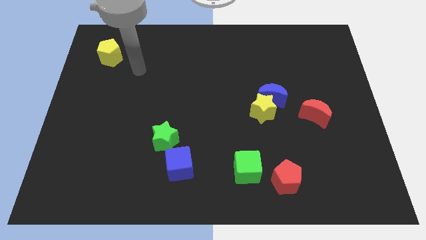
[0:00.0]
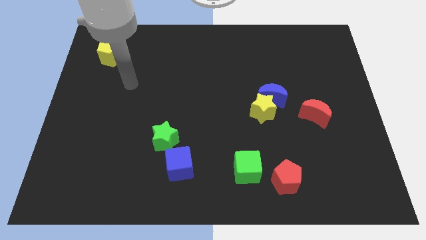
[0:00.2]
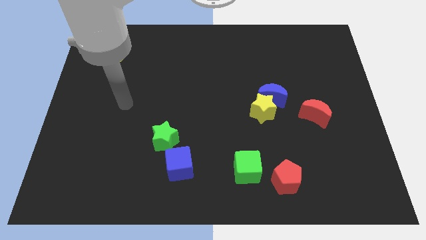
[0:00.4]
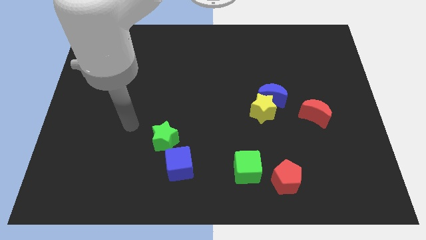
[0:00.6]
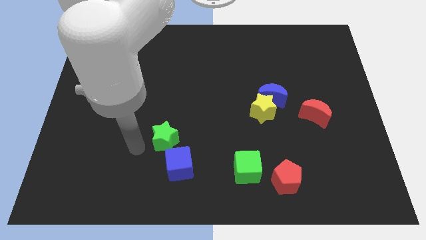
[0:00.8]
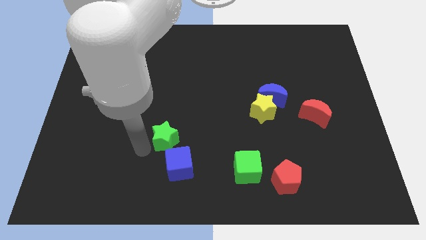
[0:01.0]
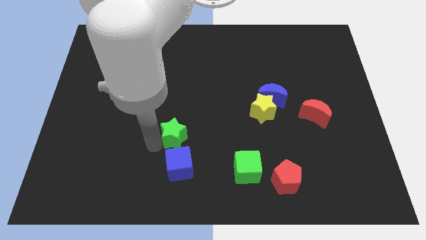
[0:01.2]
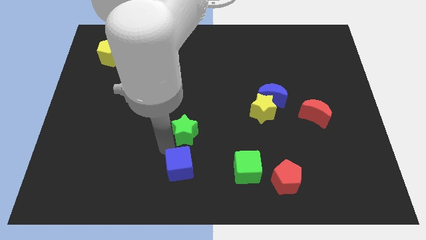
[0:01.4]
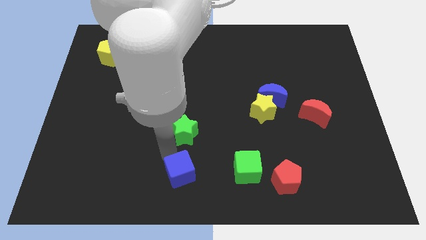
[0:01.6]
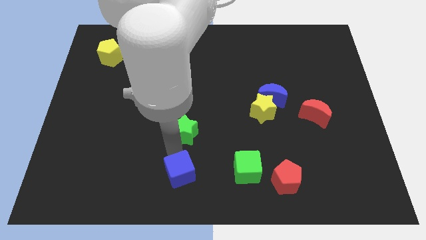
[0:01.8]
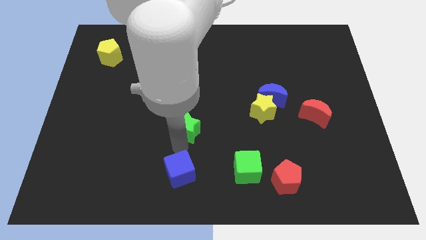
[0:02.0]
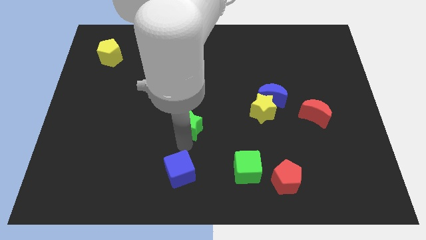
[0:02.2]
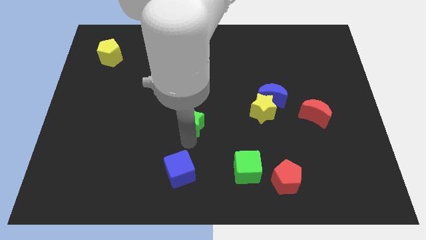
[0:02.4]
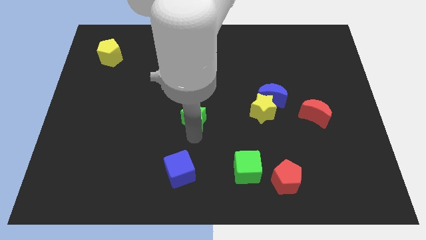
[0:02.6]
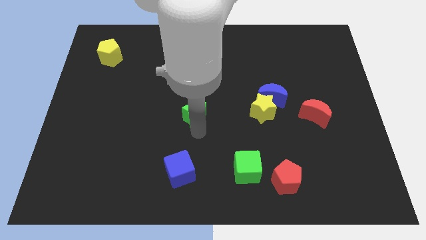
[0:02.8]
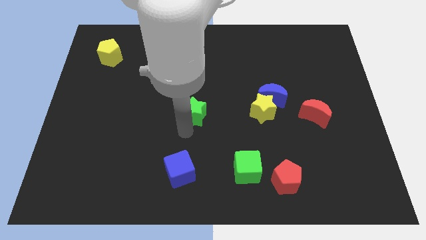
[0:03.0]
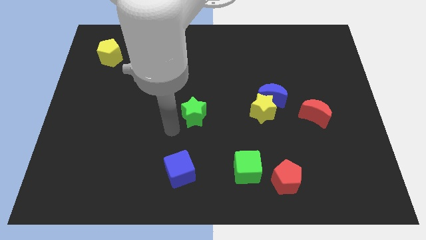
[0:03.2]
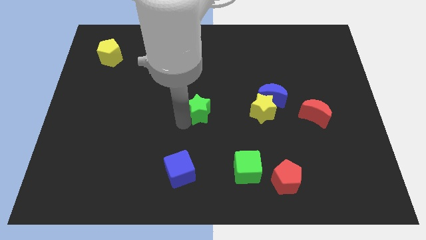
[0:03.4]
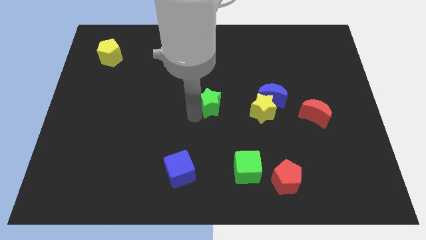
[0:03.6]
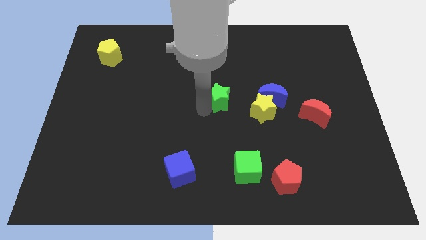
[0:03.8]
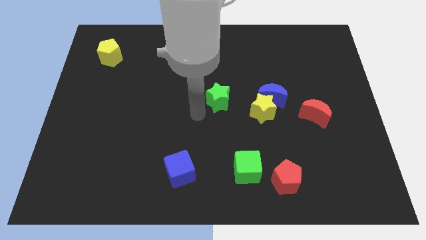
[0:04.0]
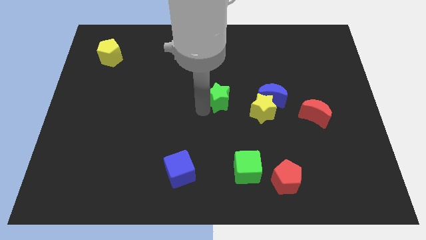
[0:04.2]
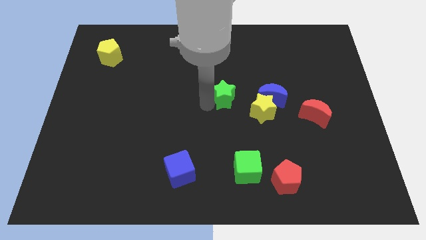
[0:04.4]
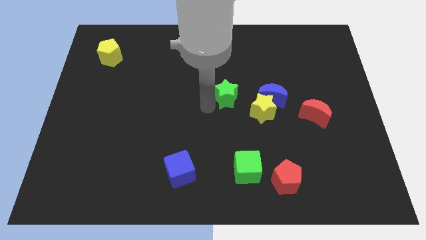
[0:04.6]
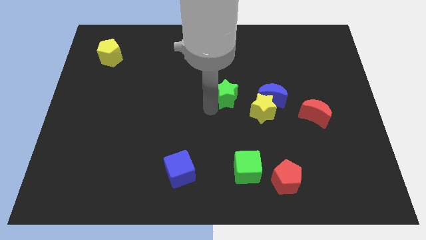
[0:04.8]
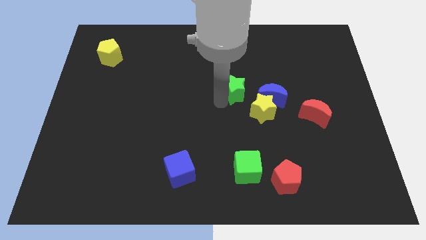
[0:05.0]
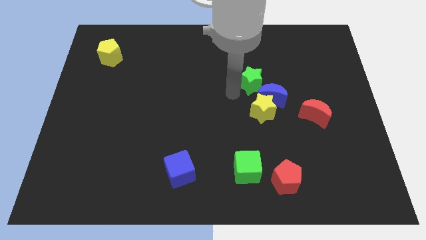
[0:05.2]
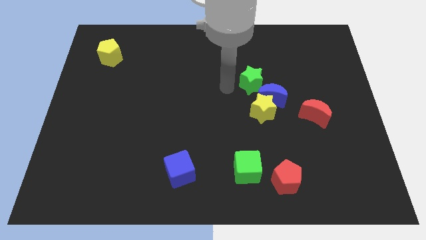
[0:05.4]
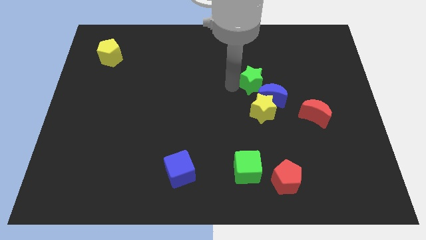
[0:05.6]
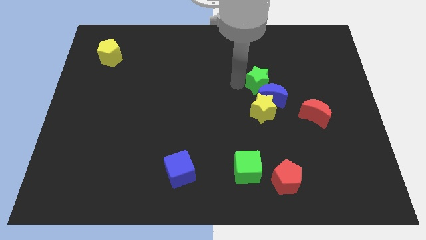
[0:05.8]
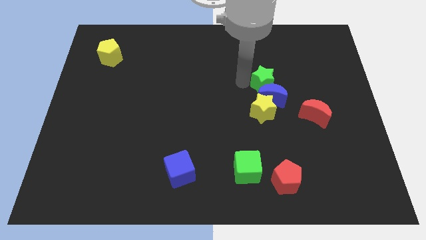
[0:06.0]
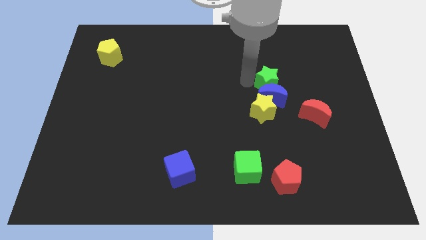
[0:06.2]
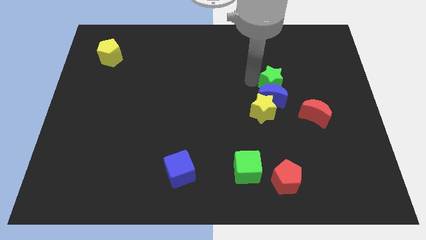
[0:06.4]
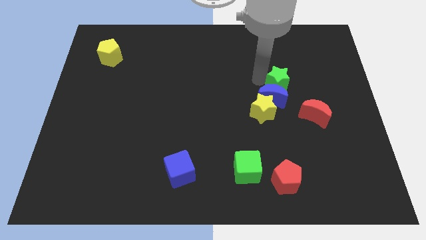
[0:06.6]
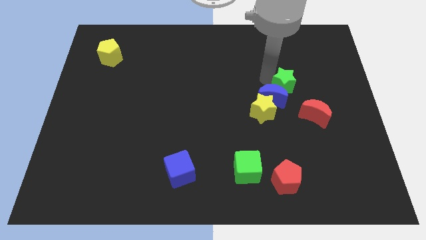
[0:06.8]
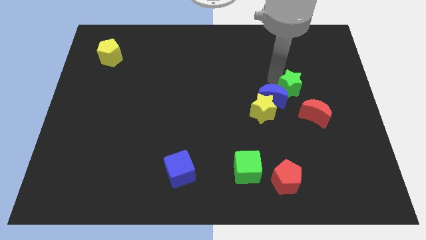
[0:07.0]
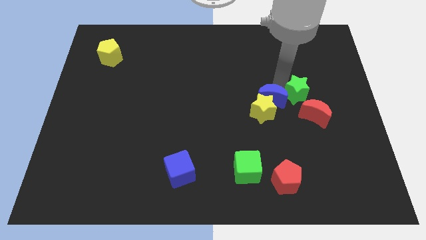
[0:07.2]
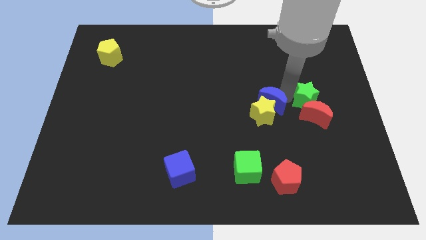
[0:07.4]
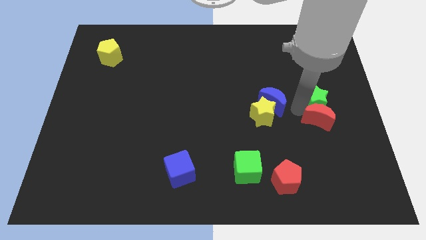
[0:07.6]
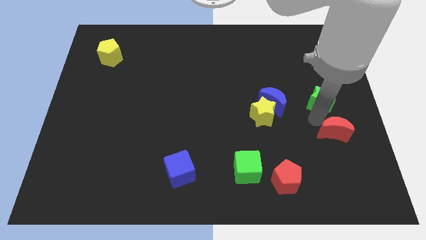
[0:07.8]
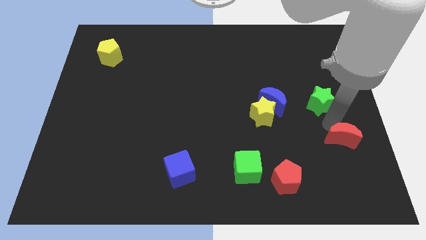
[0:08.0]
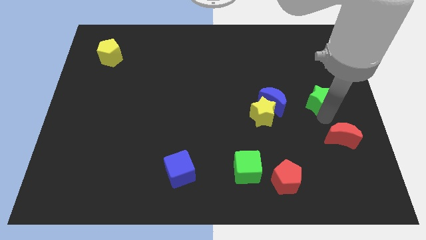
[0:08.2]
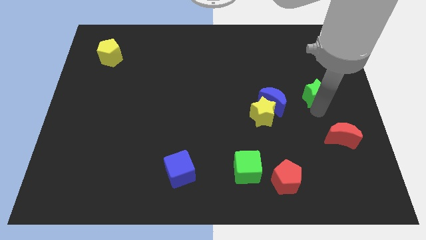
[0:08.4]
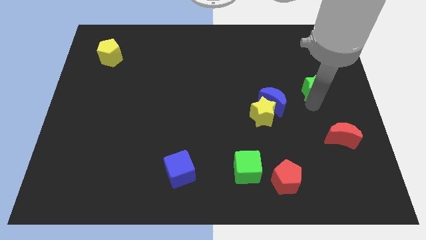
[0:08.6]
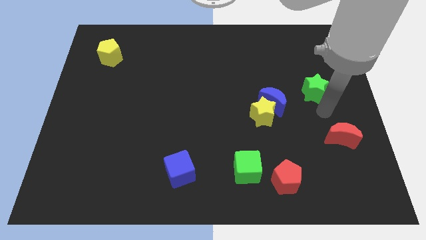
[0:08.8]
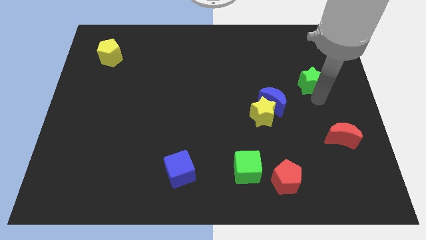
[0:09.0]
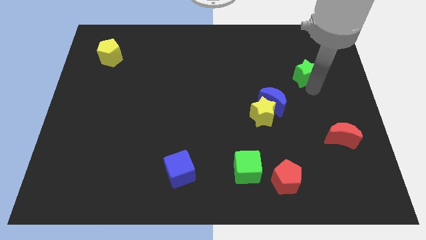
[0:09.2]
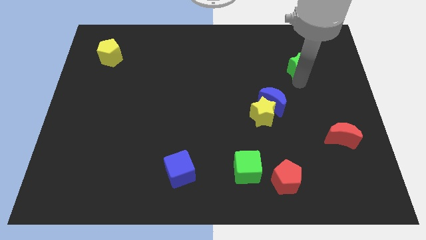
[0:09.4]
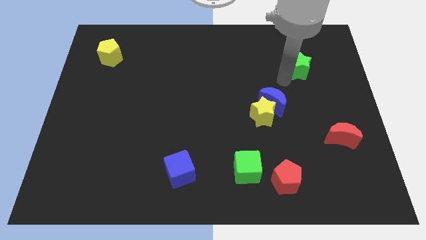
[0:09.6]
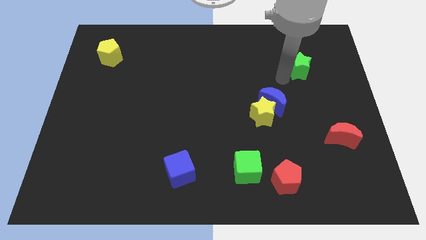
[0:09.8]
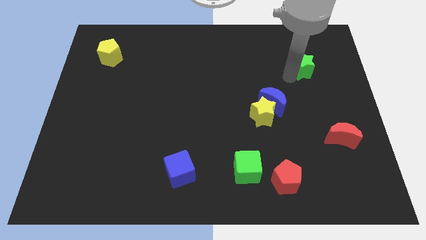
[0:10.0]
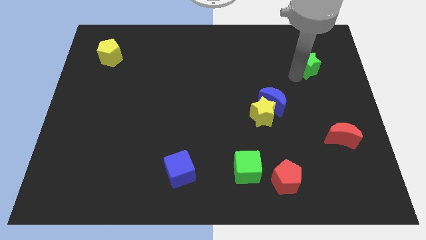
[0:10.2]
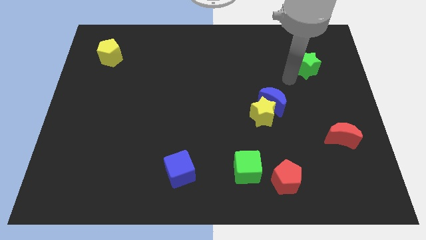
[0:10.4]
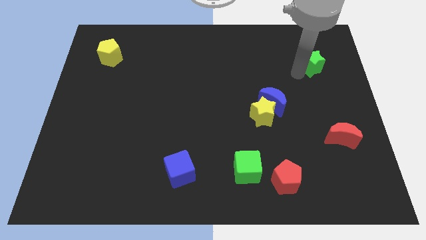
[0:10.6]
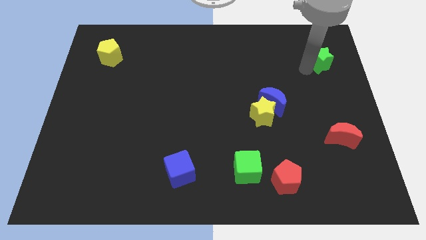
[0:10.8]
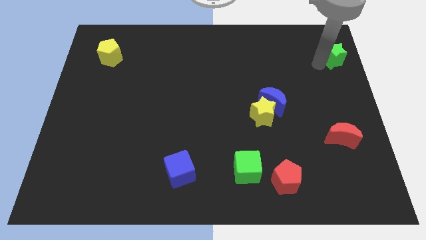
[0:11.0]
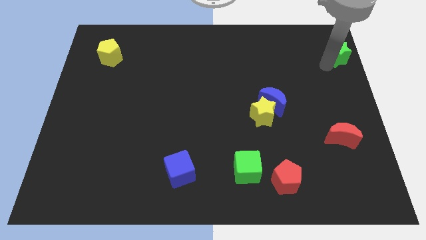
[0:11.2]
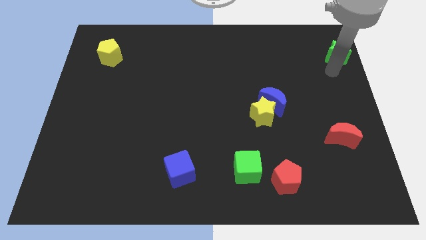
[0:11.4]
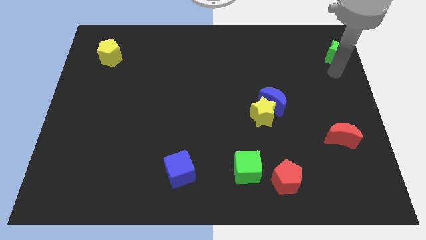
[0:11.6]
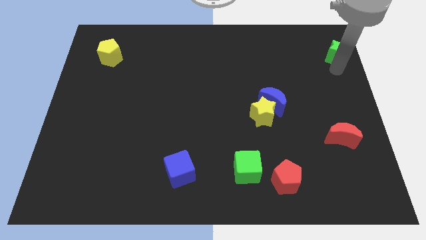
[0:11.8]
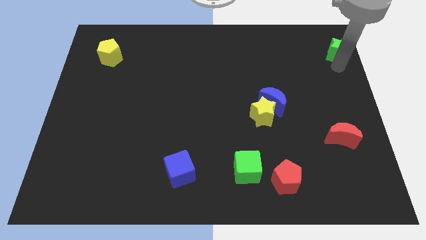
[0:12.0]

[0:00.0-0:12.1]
move the green star to the top right
